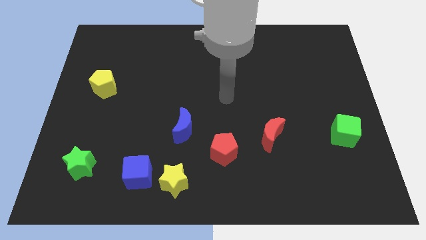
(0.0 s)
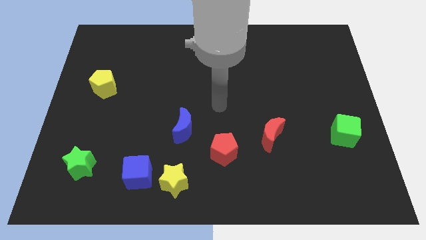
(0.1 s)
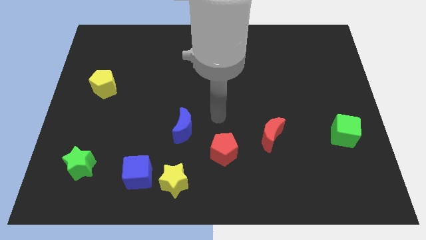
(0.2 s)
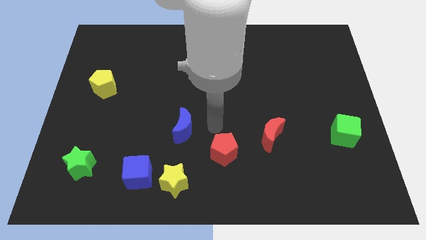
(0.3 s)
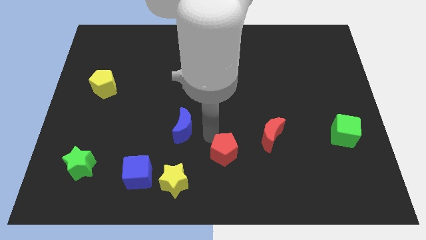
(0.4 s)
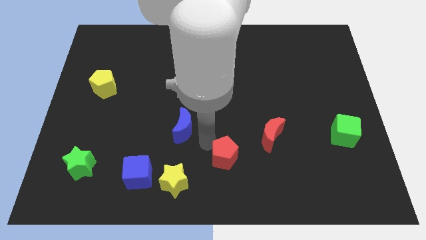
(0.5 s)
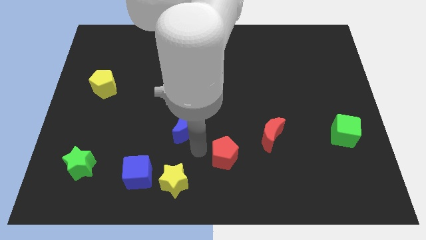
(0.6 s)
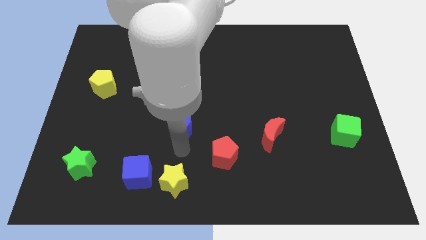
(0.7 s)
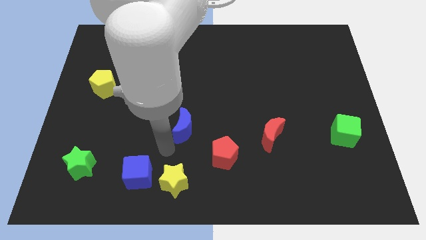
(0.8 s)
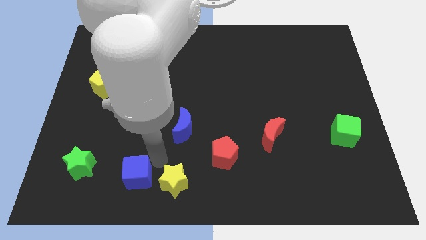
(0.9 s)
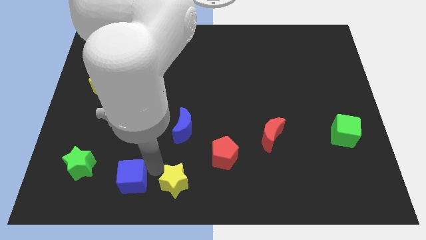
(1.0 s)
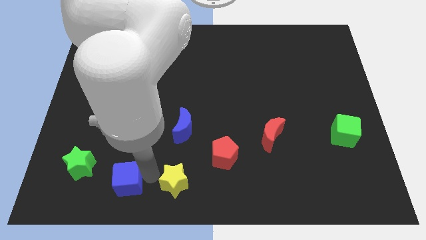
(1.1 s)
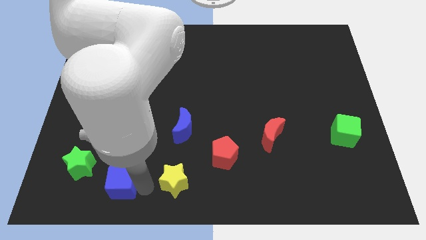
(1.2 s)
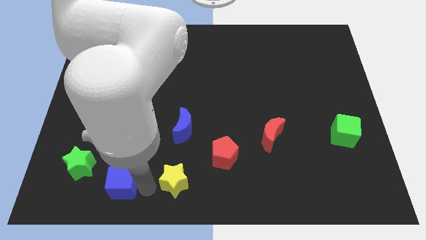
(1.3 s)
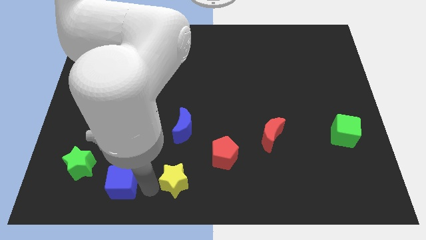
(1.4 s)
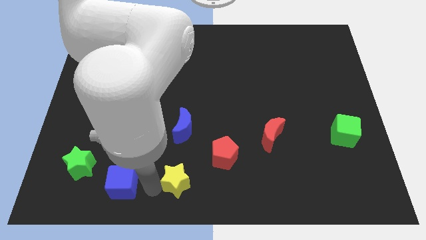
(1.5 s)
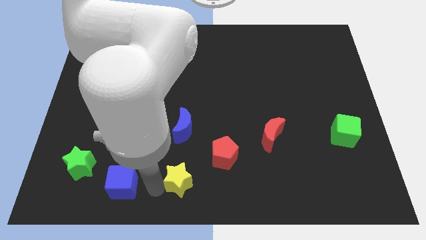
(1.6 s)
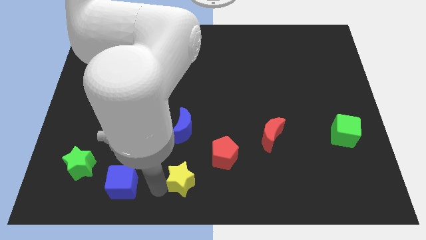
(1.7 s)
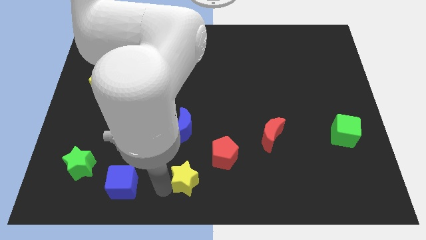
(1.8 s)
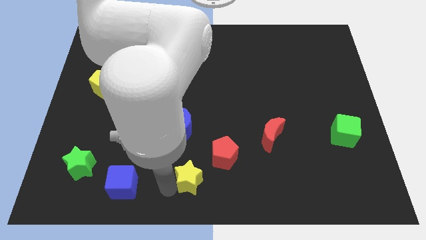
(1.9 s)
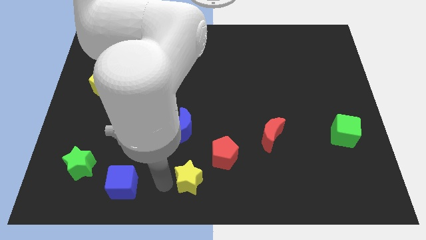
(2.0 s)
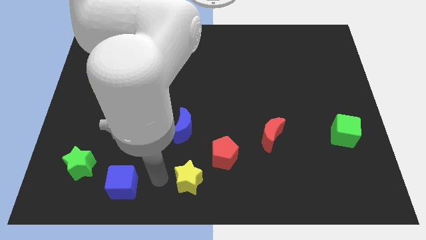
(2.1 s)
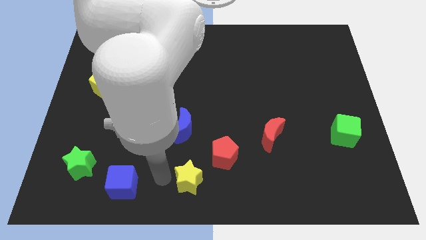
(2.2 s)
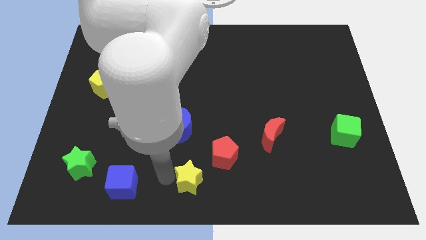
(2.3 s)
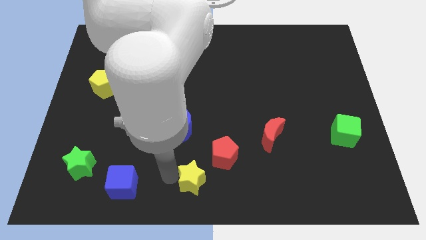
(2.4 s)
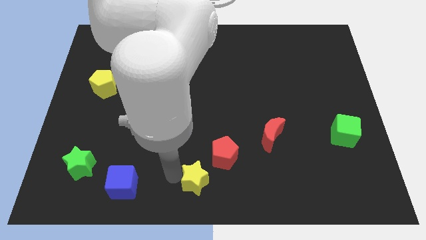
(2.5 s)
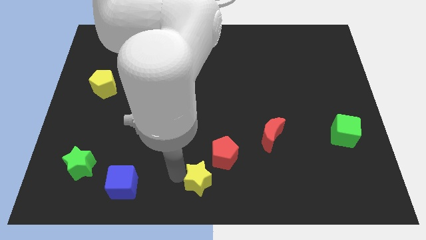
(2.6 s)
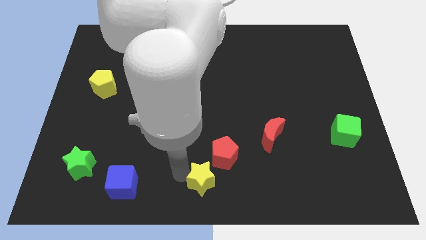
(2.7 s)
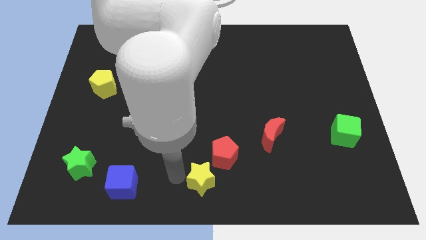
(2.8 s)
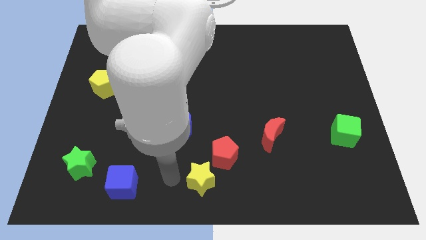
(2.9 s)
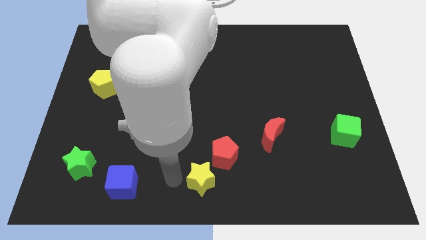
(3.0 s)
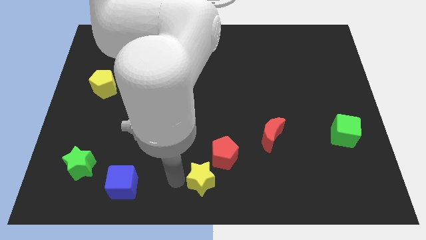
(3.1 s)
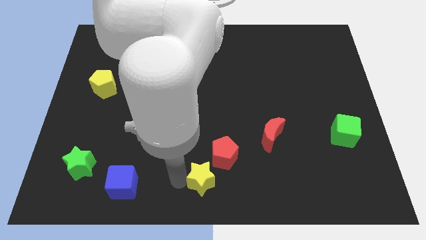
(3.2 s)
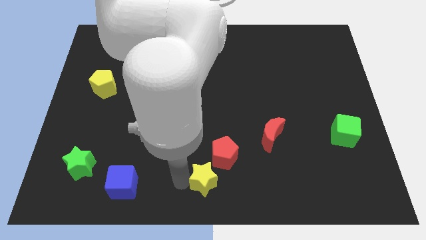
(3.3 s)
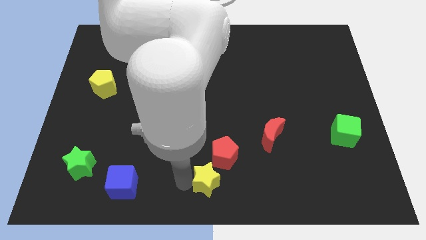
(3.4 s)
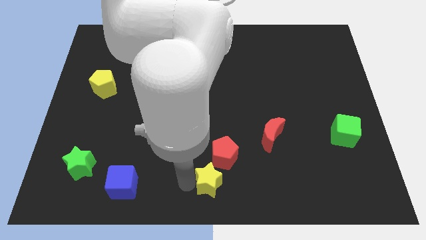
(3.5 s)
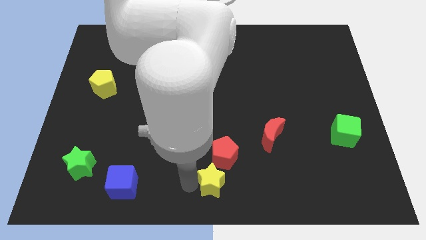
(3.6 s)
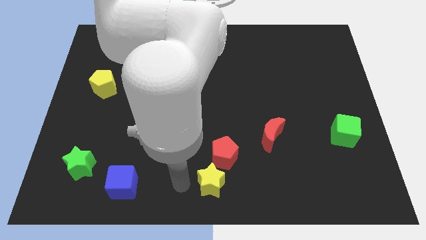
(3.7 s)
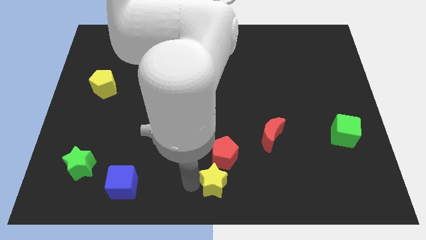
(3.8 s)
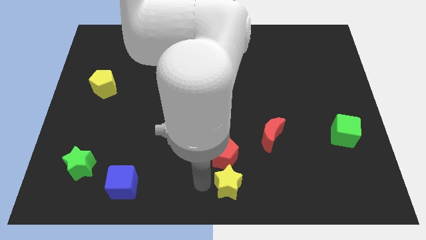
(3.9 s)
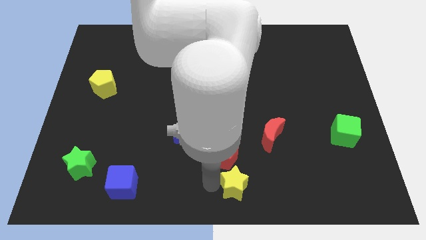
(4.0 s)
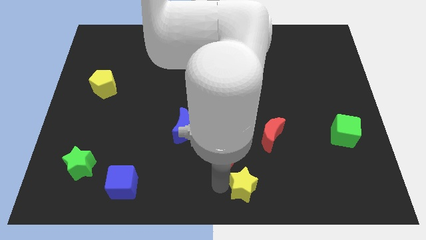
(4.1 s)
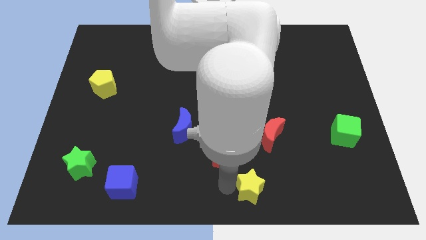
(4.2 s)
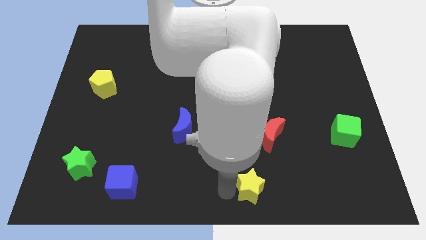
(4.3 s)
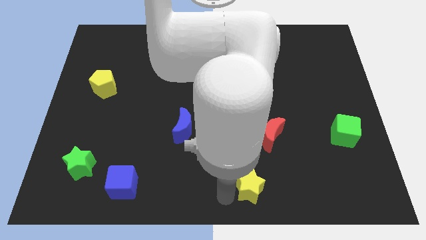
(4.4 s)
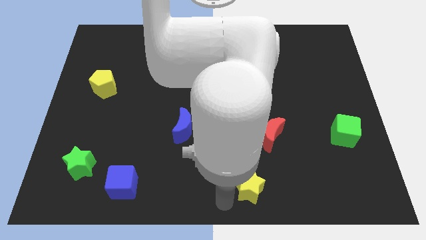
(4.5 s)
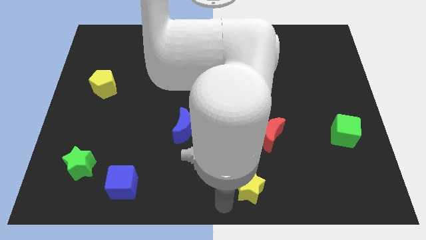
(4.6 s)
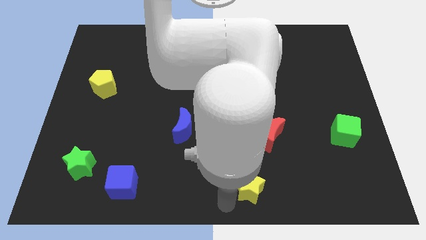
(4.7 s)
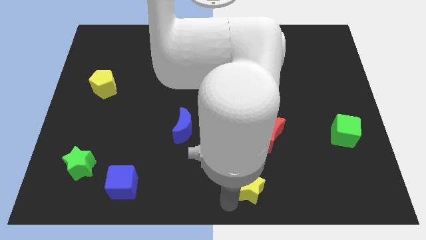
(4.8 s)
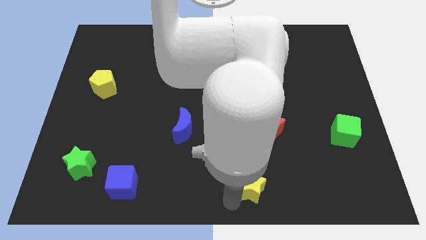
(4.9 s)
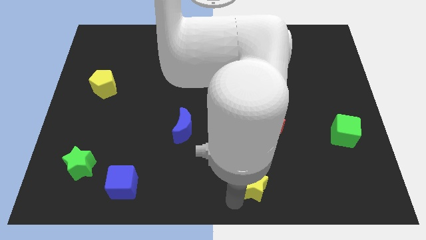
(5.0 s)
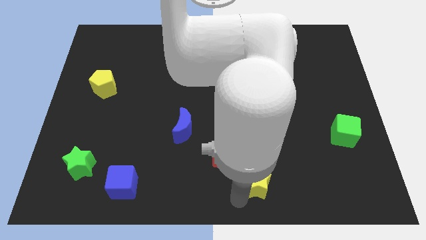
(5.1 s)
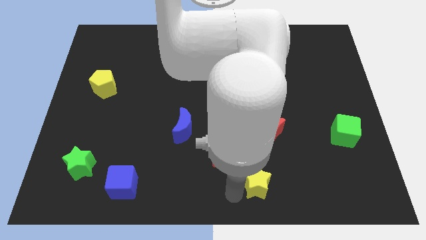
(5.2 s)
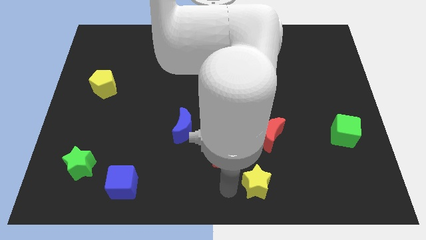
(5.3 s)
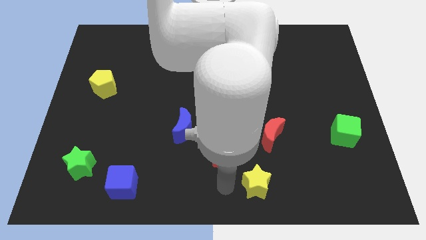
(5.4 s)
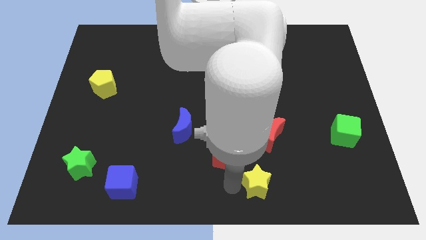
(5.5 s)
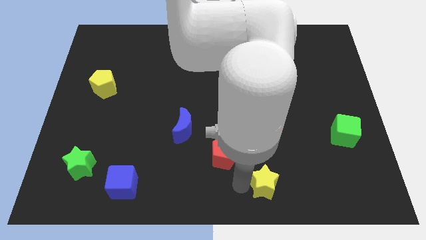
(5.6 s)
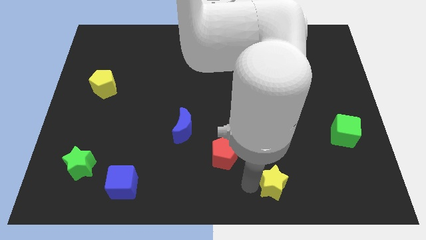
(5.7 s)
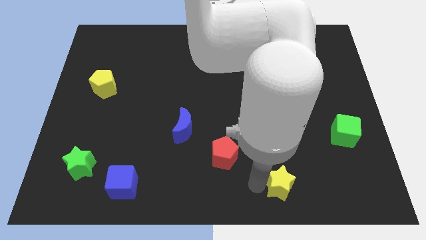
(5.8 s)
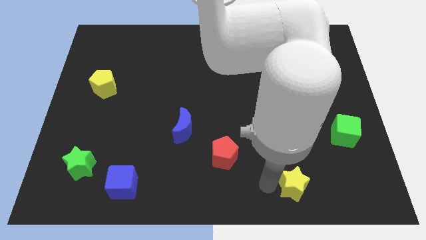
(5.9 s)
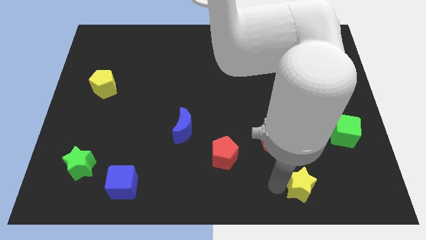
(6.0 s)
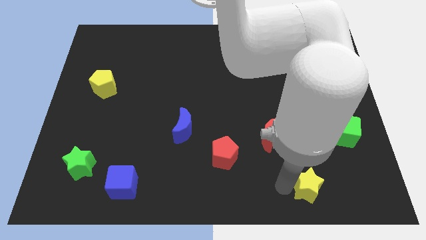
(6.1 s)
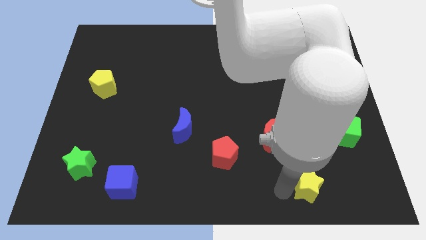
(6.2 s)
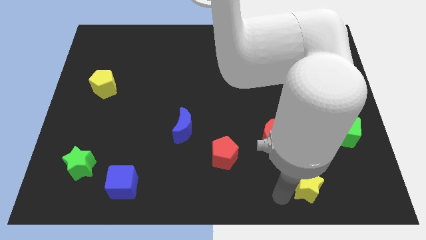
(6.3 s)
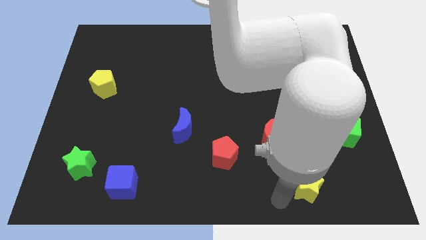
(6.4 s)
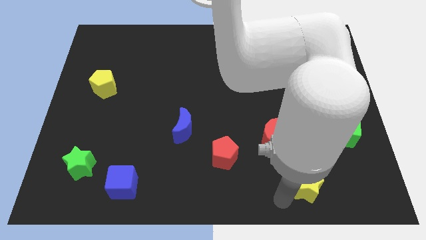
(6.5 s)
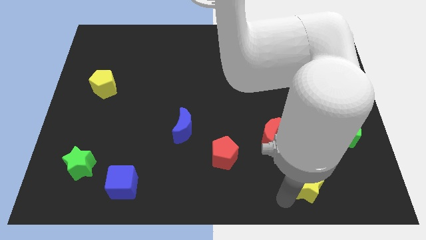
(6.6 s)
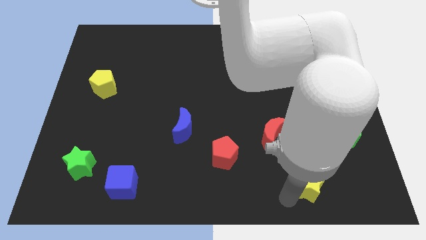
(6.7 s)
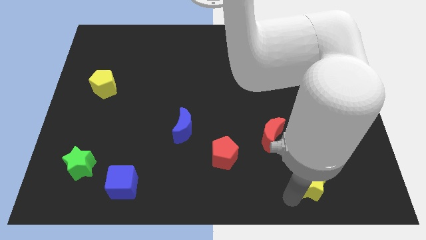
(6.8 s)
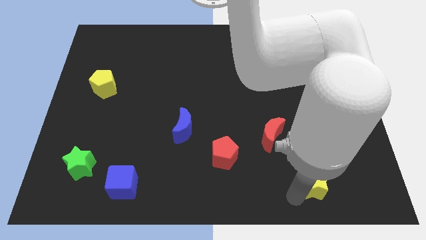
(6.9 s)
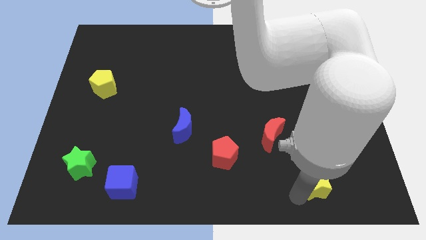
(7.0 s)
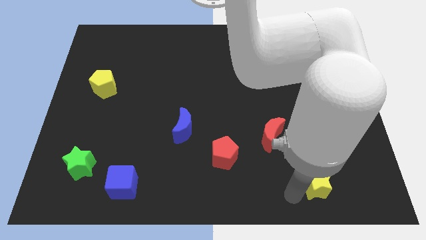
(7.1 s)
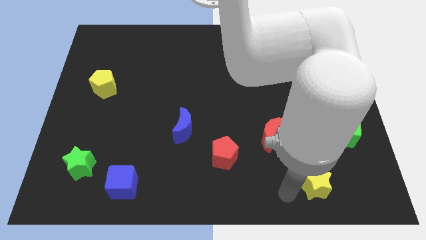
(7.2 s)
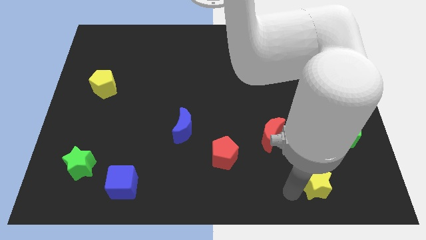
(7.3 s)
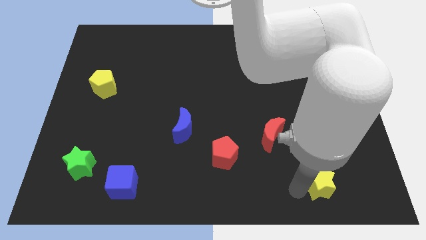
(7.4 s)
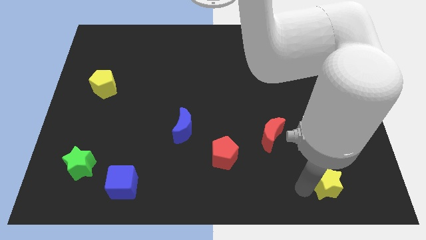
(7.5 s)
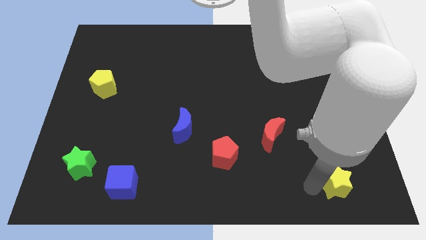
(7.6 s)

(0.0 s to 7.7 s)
slide the yellow star below the green cube
